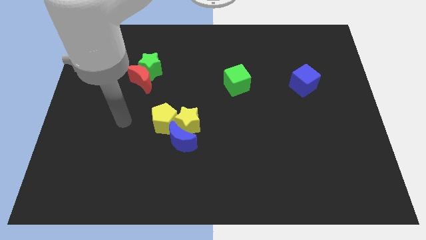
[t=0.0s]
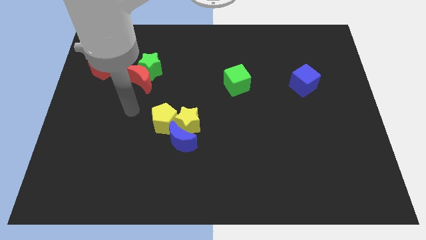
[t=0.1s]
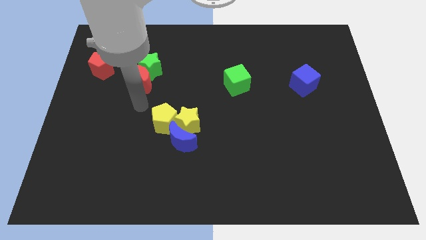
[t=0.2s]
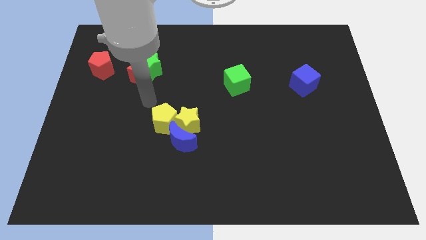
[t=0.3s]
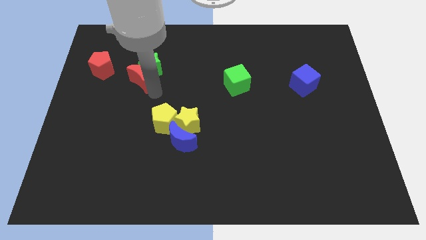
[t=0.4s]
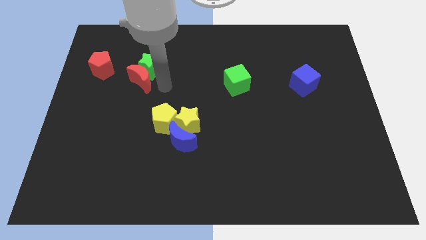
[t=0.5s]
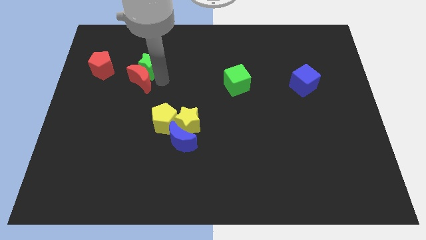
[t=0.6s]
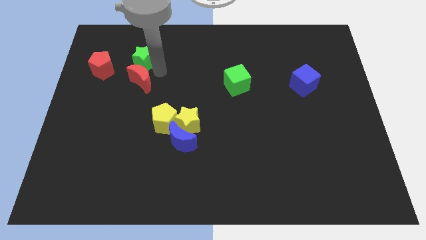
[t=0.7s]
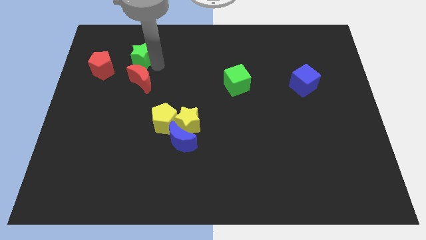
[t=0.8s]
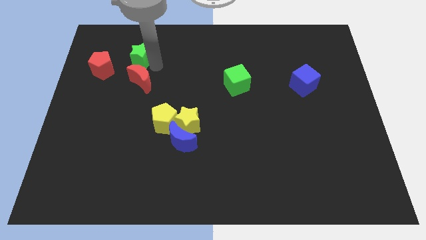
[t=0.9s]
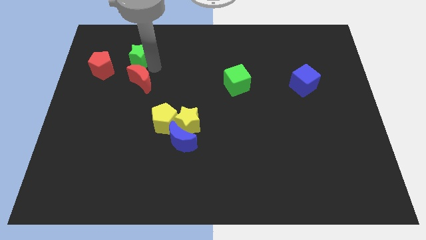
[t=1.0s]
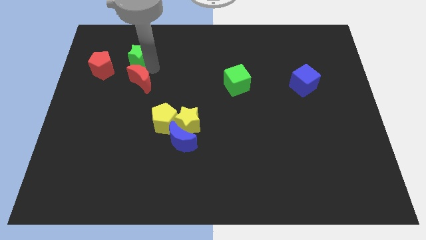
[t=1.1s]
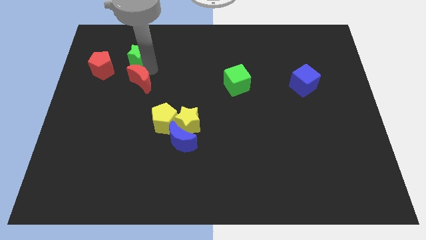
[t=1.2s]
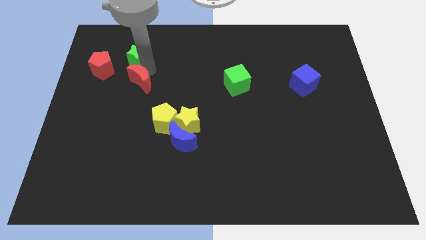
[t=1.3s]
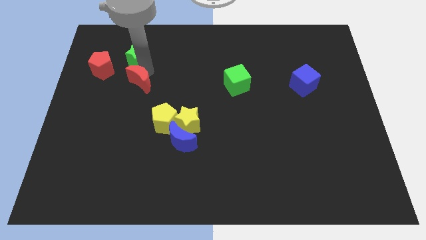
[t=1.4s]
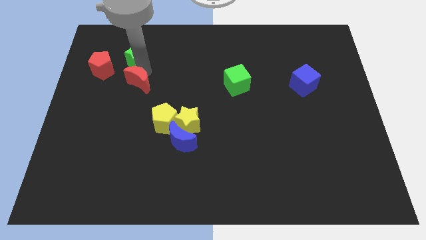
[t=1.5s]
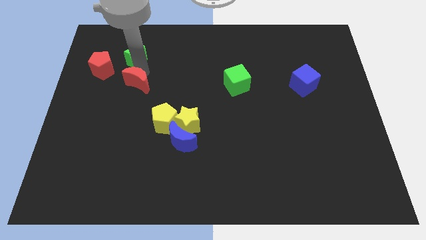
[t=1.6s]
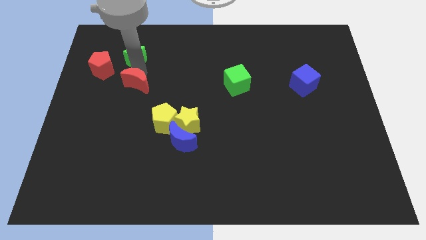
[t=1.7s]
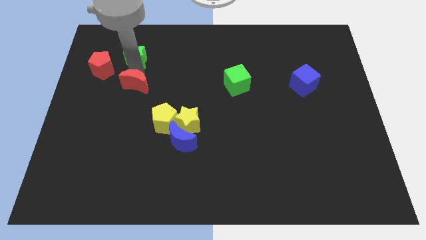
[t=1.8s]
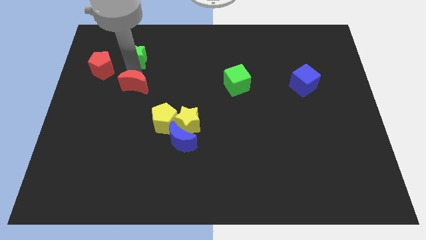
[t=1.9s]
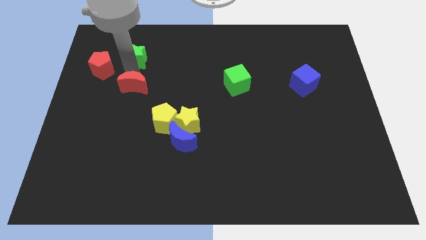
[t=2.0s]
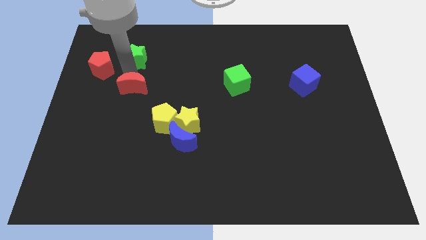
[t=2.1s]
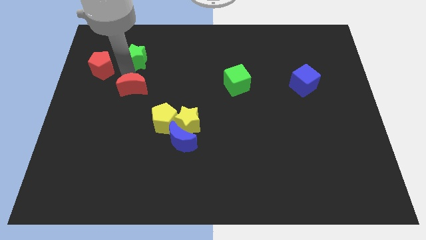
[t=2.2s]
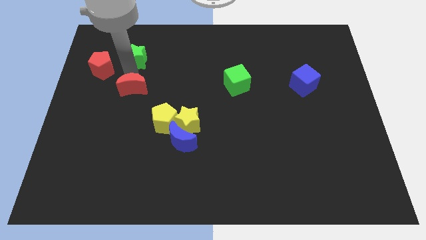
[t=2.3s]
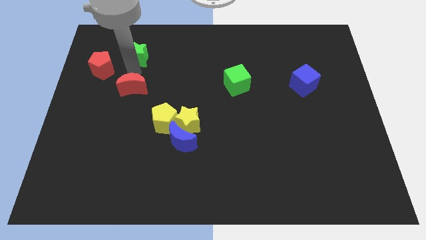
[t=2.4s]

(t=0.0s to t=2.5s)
pull the red moon apart from the green star

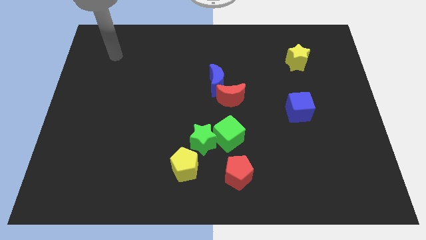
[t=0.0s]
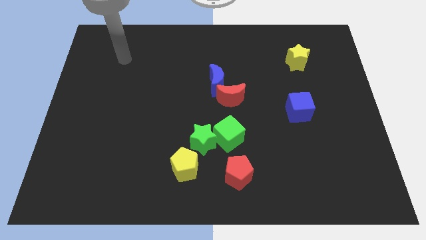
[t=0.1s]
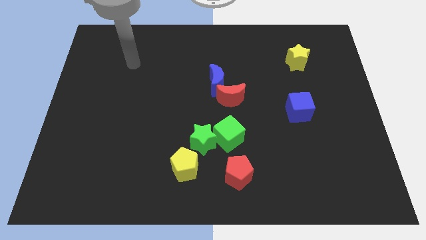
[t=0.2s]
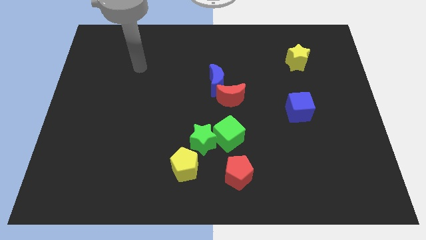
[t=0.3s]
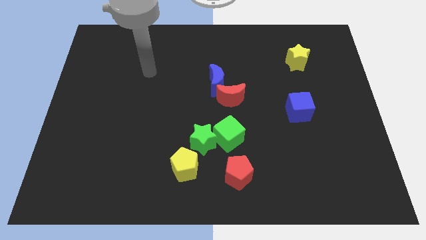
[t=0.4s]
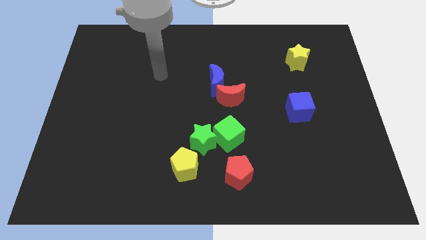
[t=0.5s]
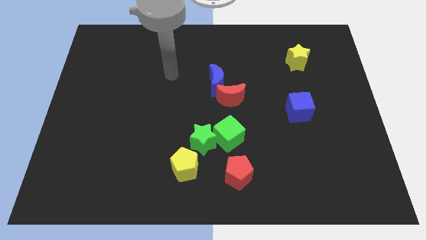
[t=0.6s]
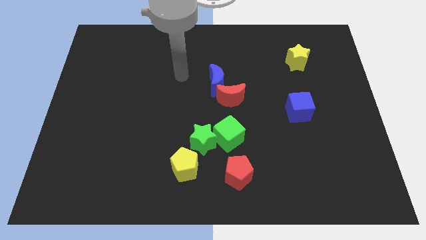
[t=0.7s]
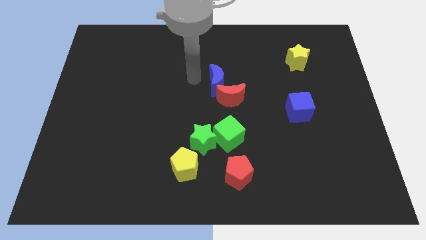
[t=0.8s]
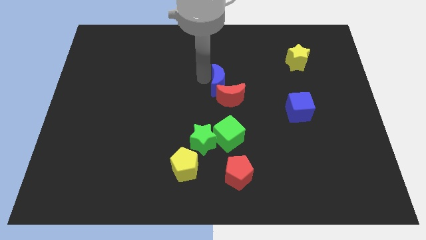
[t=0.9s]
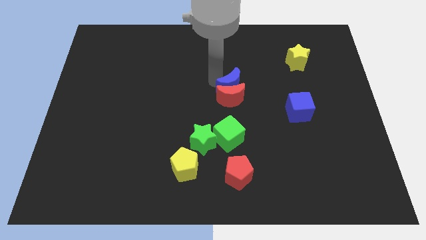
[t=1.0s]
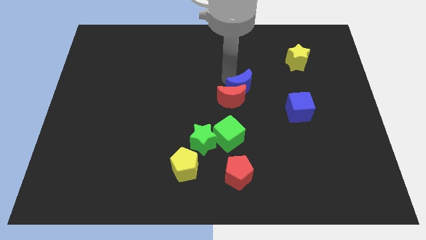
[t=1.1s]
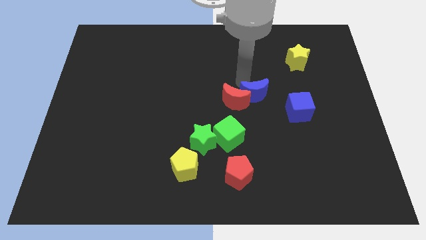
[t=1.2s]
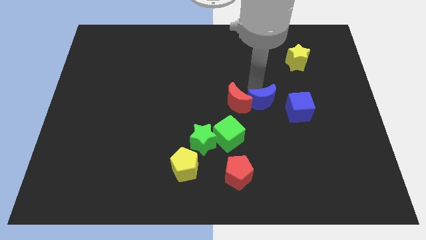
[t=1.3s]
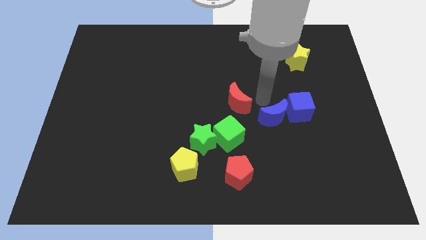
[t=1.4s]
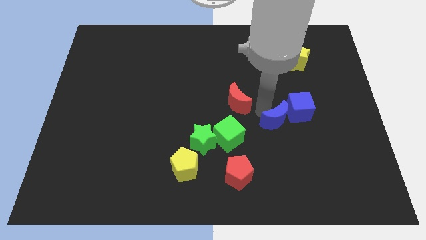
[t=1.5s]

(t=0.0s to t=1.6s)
separate the red moon from the blue moon

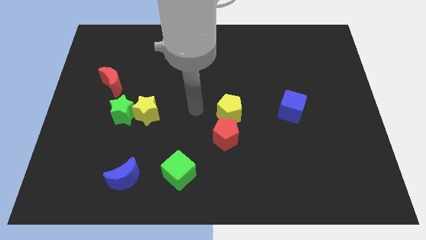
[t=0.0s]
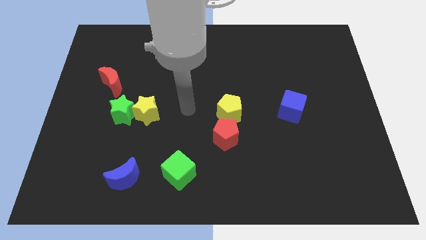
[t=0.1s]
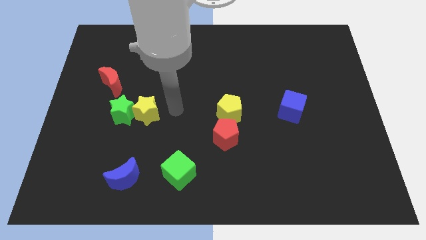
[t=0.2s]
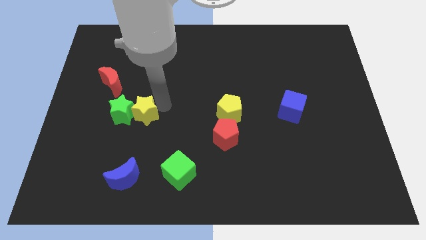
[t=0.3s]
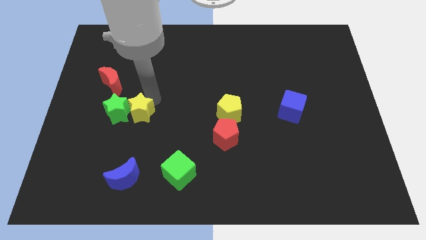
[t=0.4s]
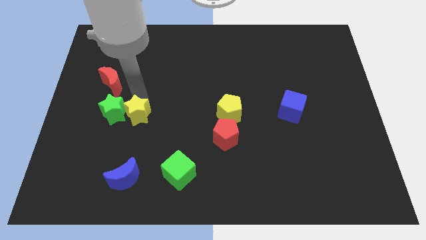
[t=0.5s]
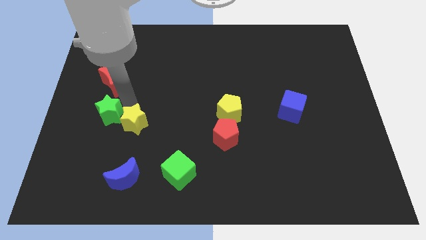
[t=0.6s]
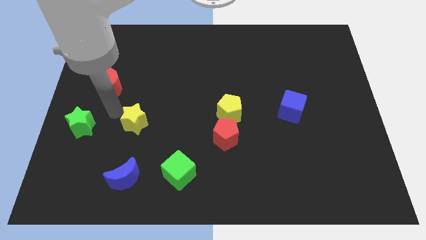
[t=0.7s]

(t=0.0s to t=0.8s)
pull the yellow star apart from the green star

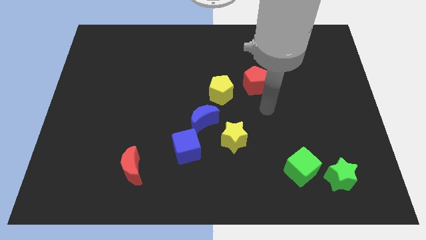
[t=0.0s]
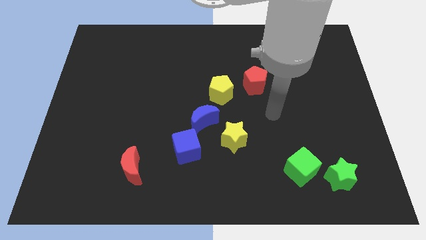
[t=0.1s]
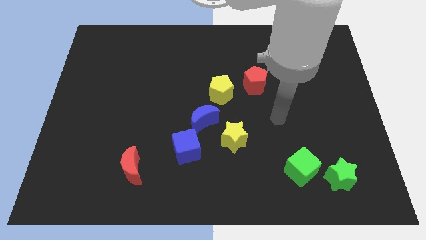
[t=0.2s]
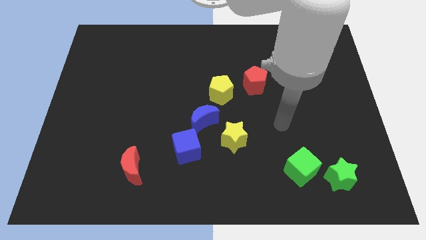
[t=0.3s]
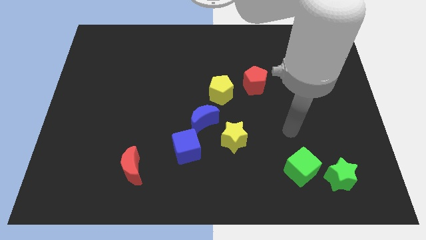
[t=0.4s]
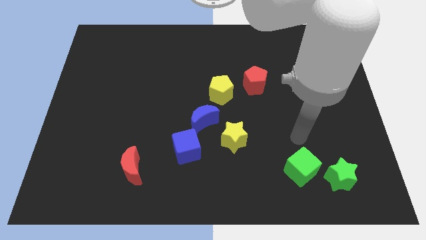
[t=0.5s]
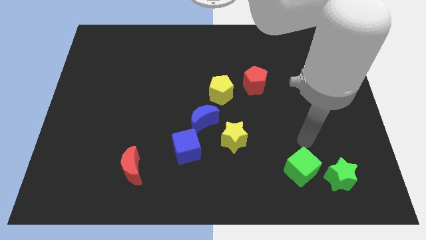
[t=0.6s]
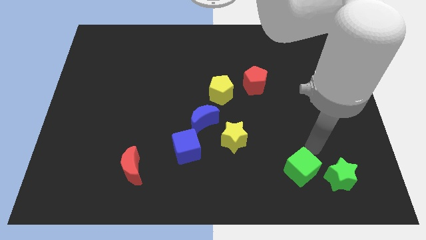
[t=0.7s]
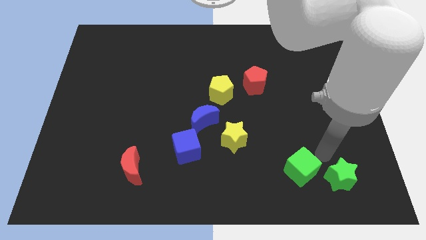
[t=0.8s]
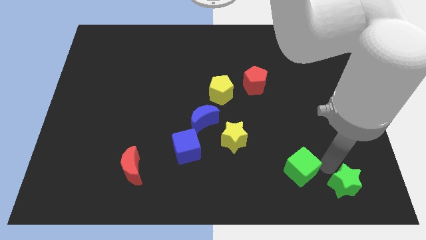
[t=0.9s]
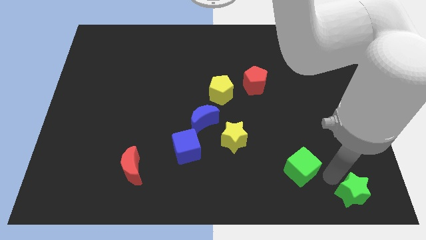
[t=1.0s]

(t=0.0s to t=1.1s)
separate the green cube from the green star

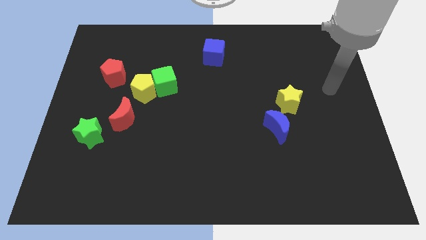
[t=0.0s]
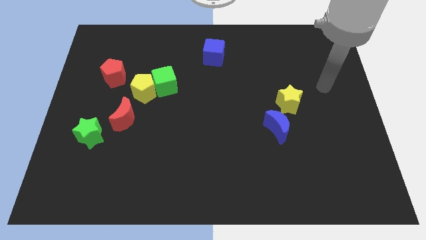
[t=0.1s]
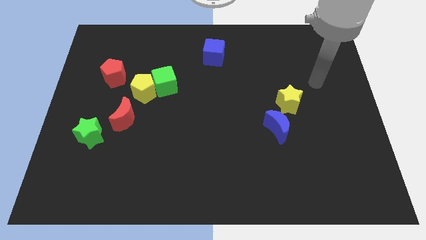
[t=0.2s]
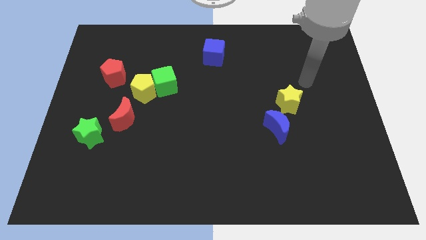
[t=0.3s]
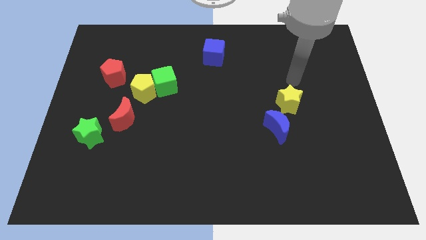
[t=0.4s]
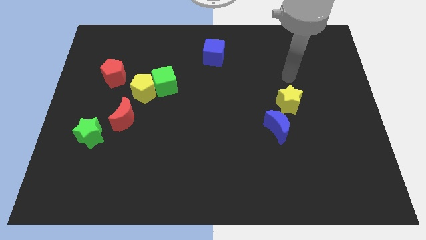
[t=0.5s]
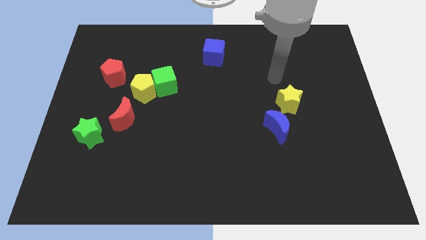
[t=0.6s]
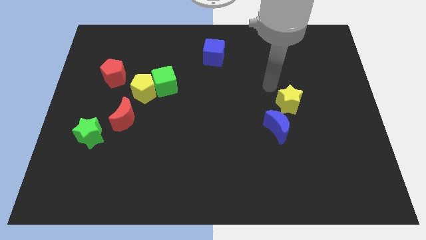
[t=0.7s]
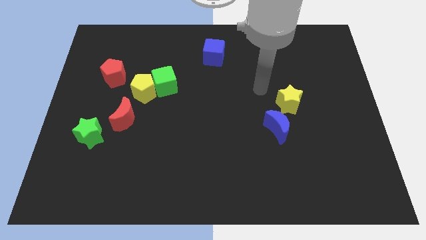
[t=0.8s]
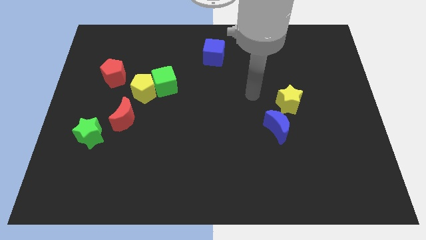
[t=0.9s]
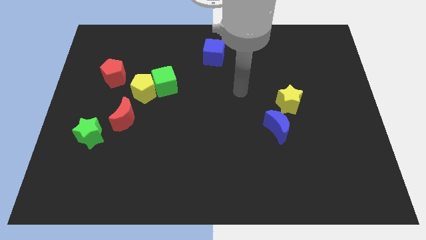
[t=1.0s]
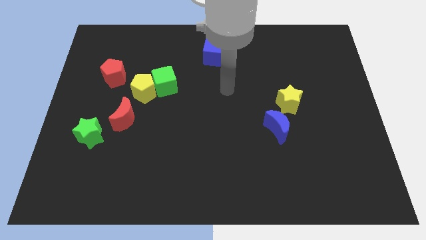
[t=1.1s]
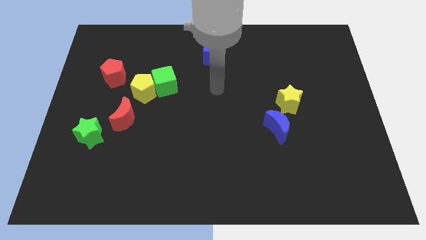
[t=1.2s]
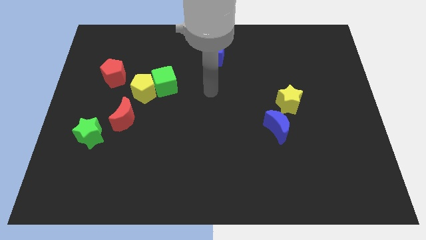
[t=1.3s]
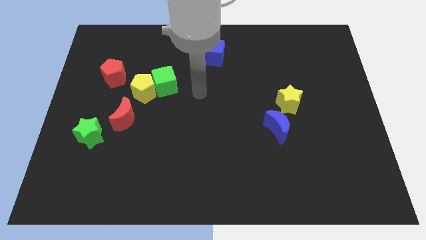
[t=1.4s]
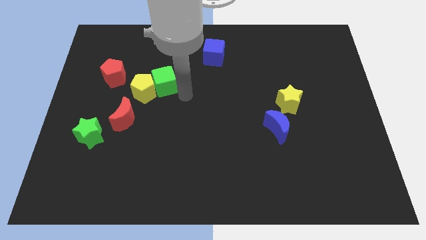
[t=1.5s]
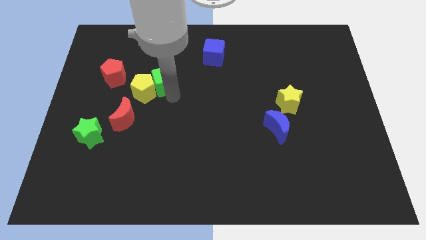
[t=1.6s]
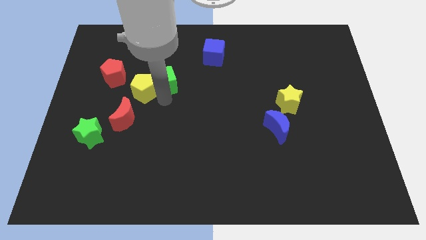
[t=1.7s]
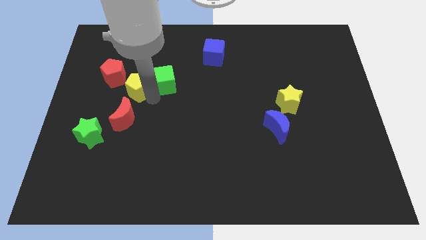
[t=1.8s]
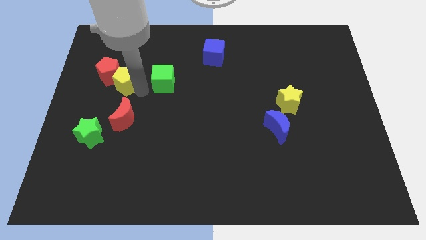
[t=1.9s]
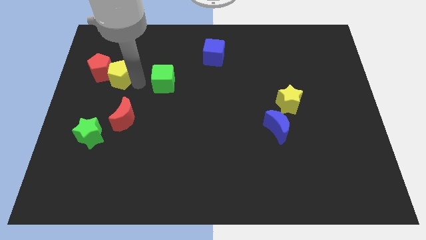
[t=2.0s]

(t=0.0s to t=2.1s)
move the green cube away from the yellow pentagon

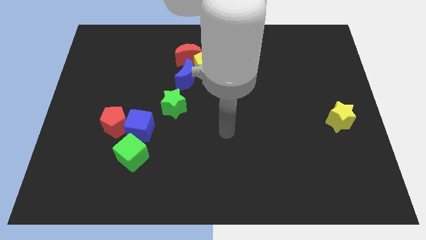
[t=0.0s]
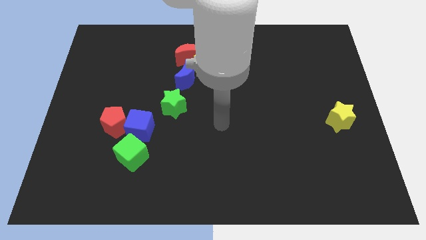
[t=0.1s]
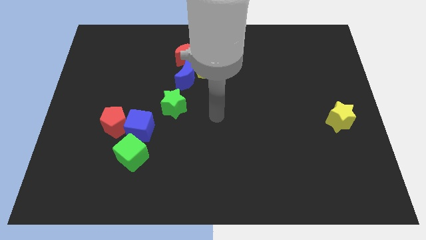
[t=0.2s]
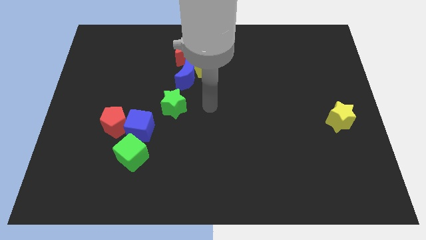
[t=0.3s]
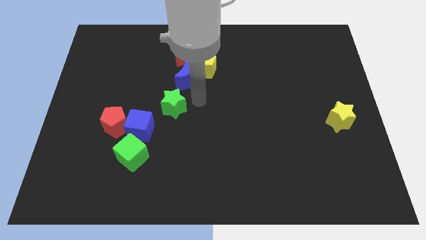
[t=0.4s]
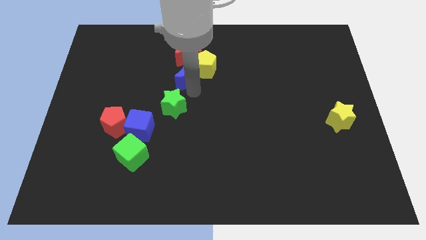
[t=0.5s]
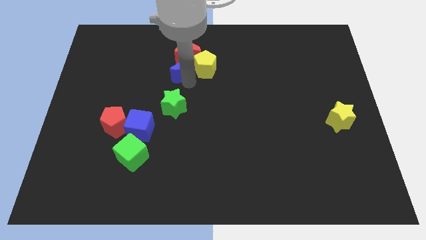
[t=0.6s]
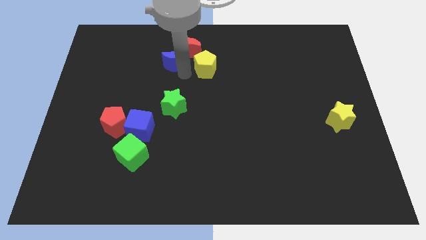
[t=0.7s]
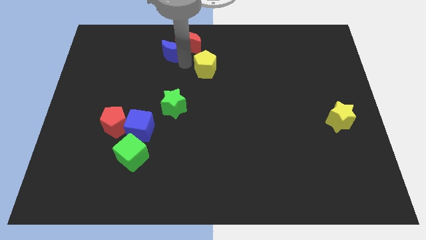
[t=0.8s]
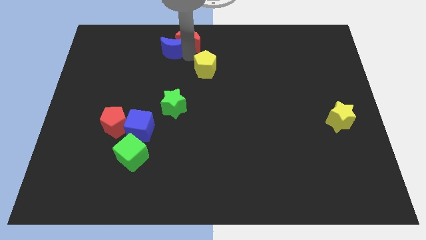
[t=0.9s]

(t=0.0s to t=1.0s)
pull the yellow pentagon apart from the red moon and blue moon
